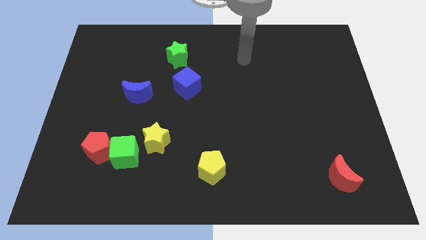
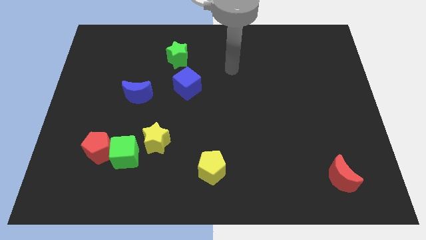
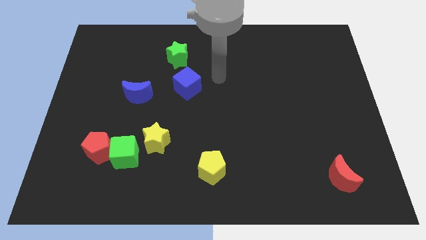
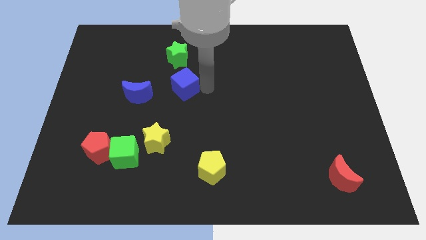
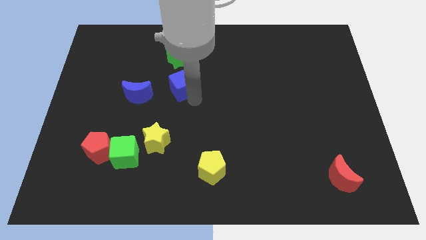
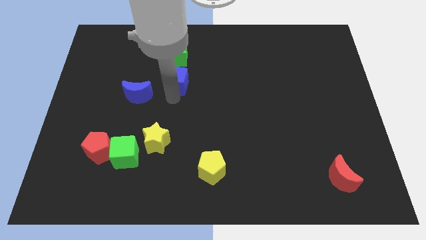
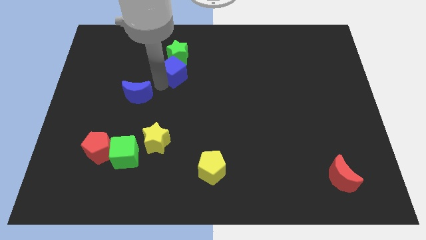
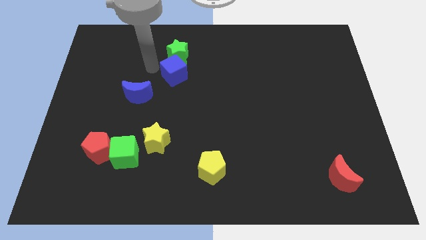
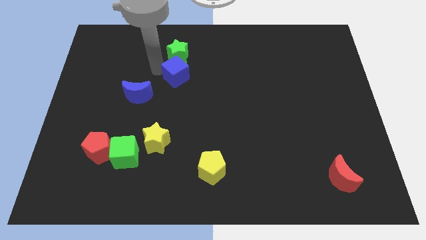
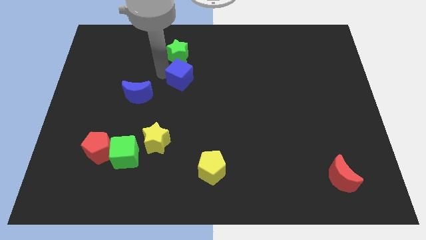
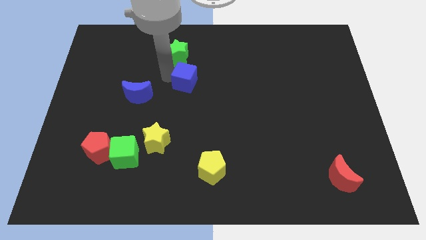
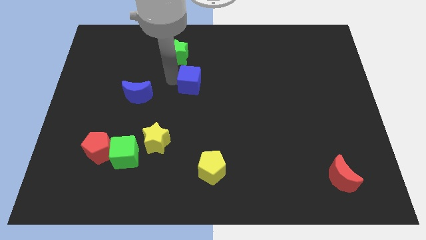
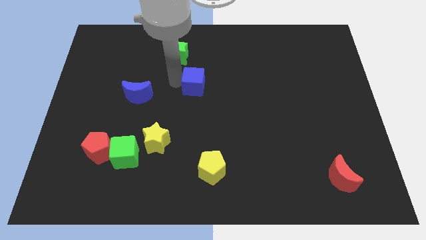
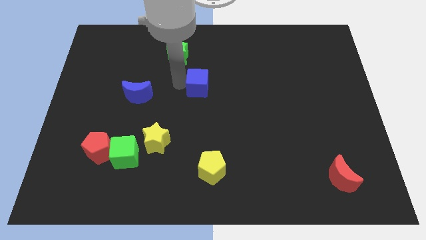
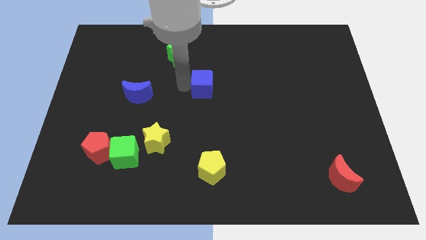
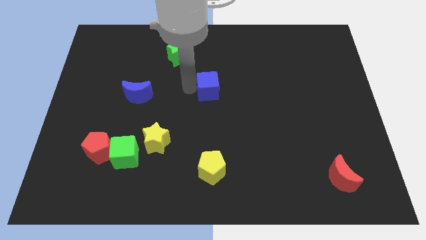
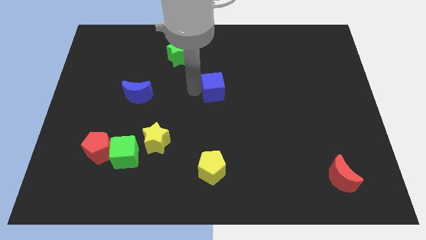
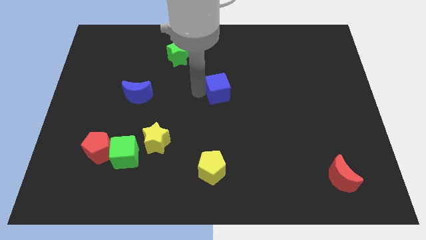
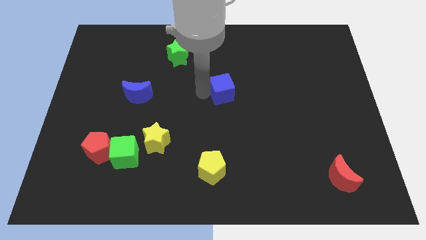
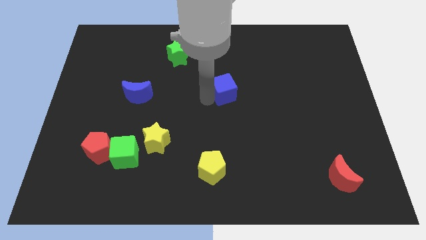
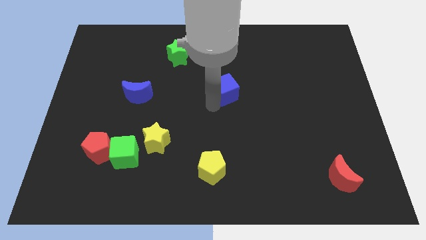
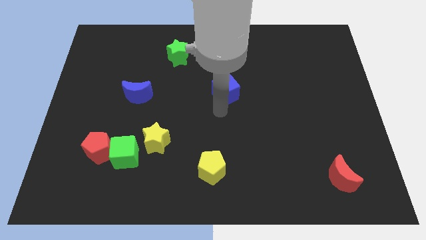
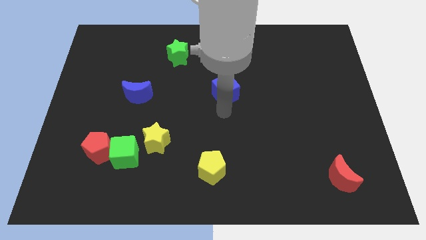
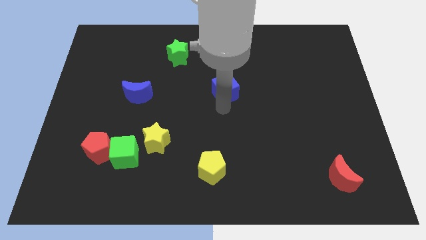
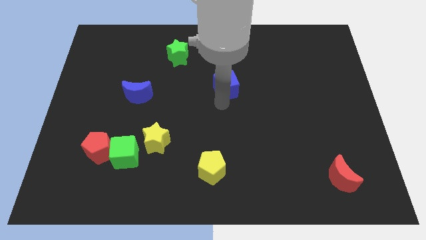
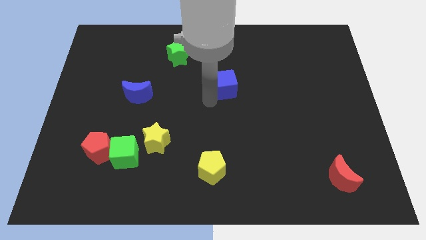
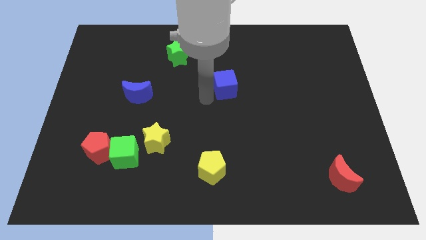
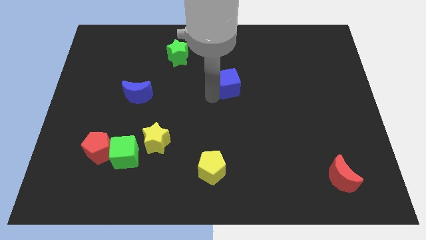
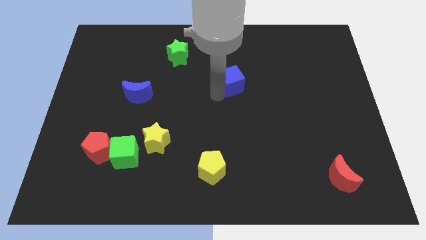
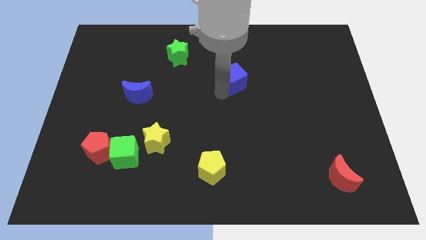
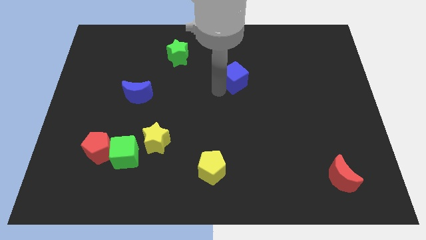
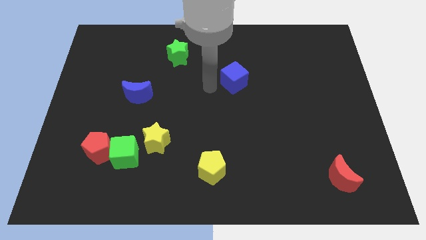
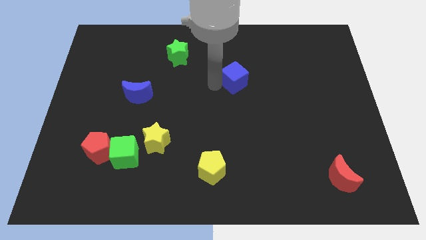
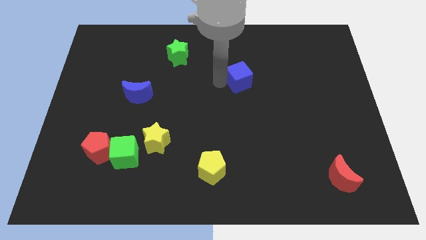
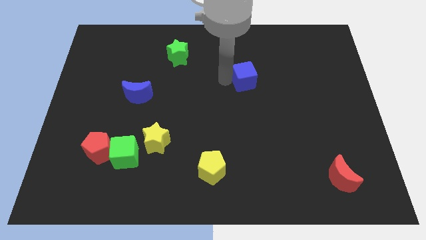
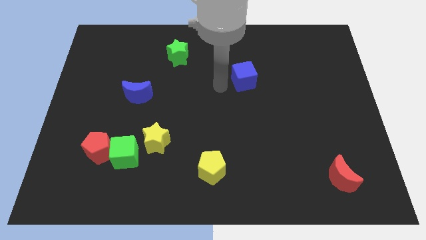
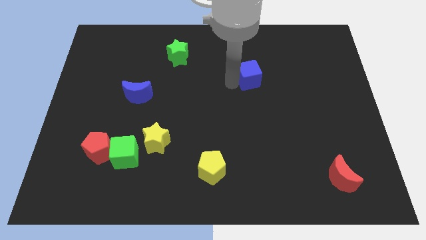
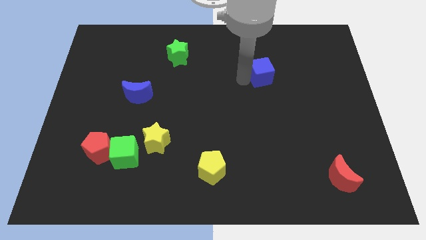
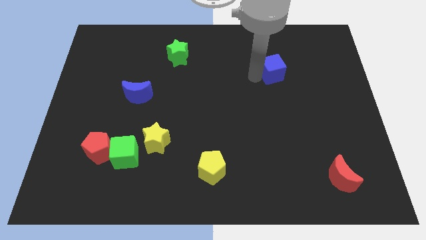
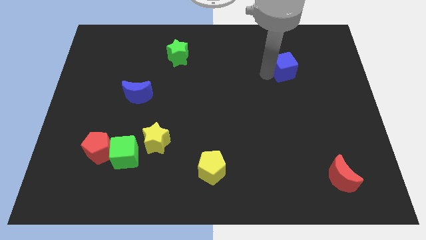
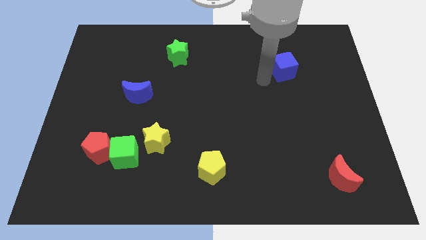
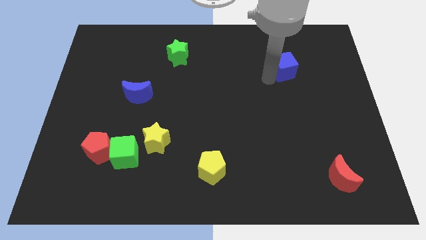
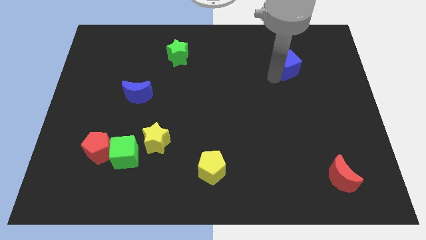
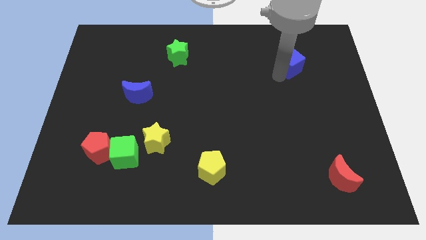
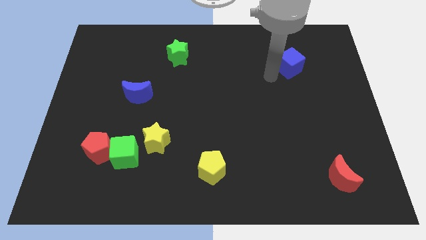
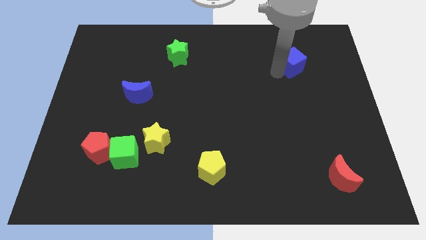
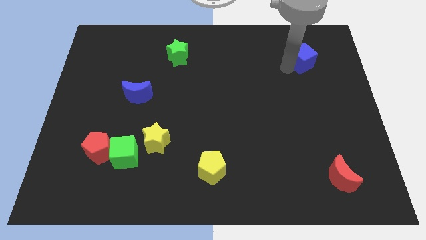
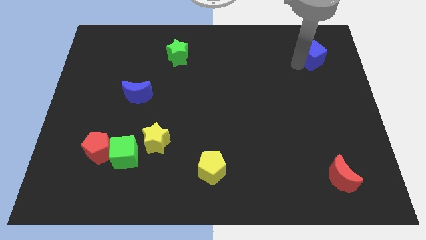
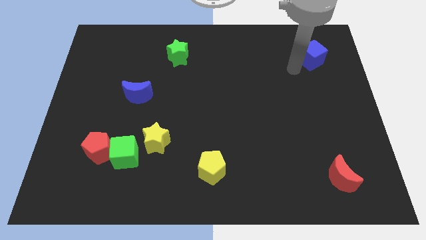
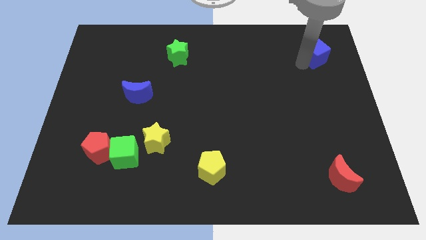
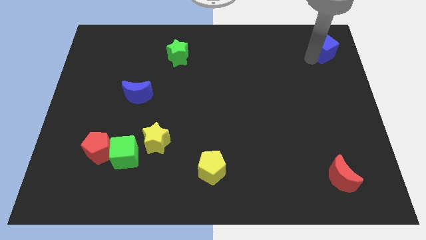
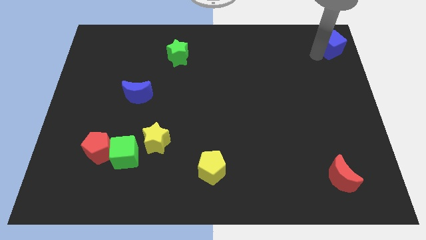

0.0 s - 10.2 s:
move the blue cube to the top right of the board

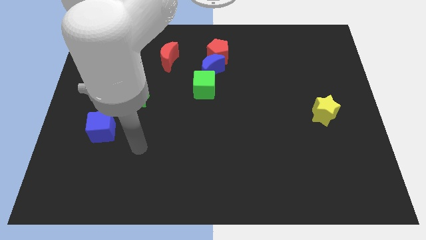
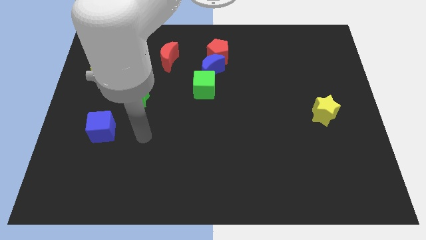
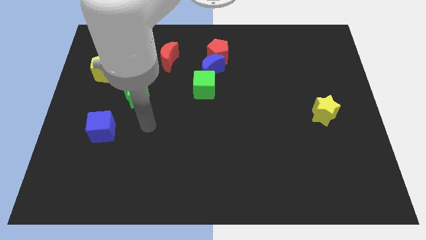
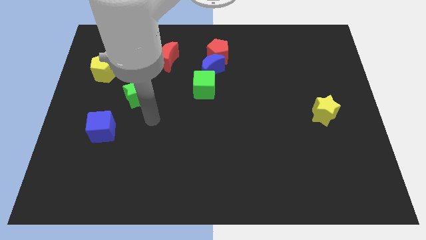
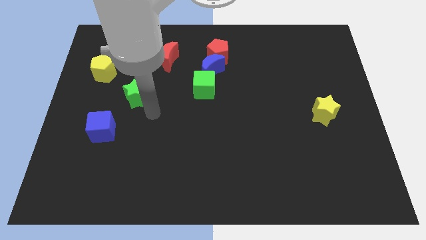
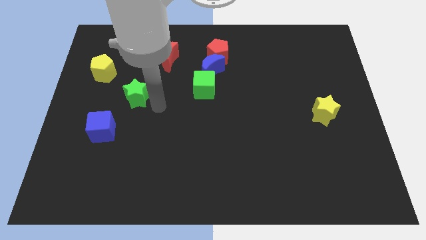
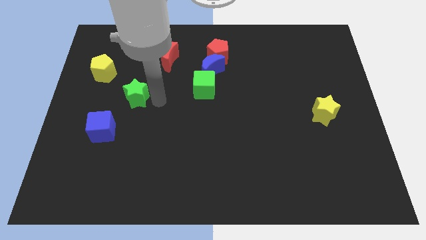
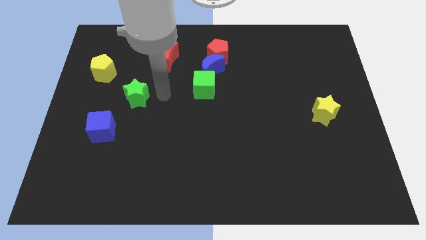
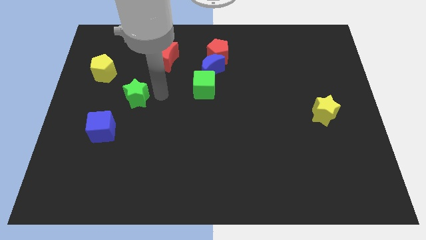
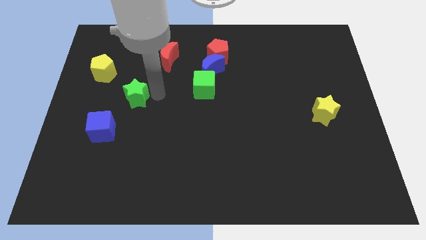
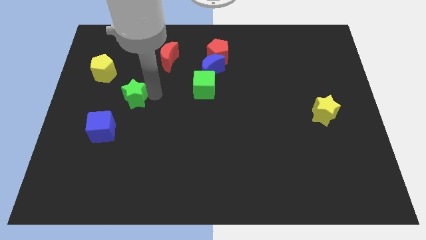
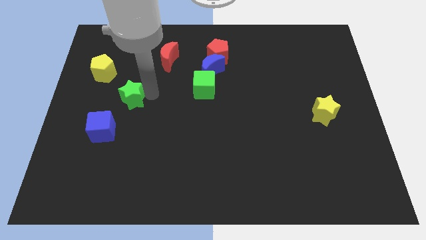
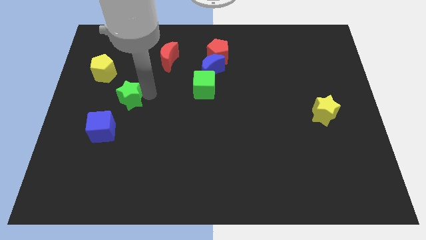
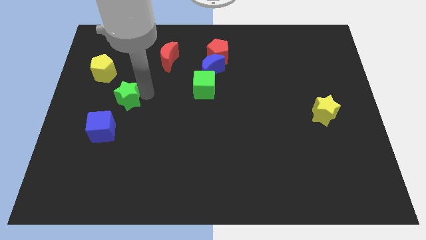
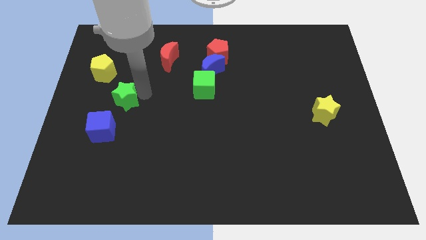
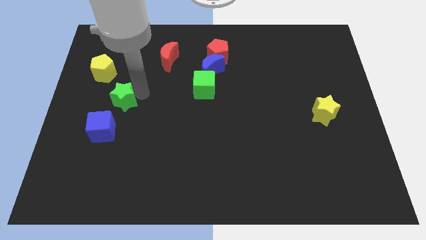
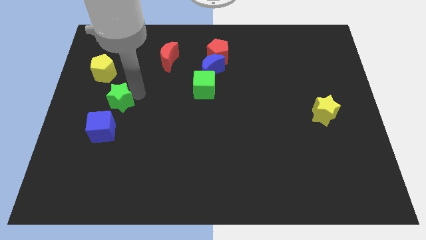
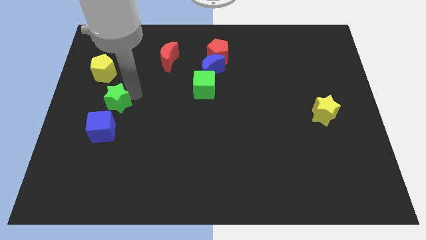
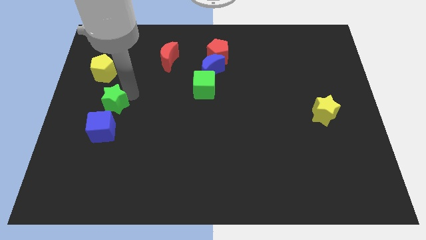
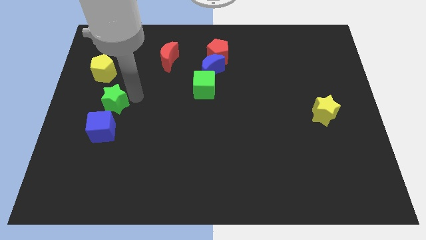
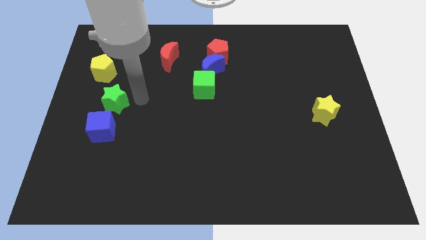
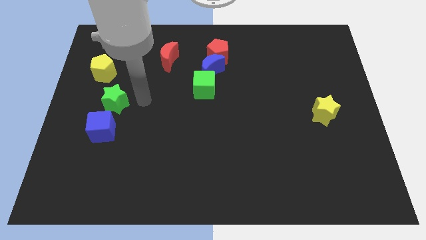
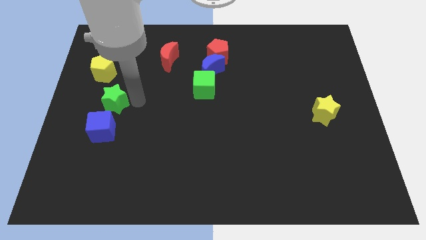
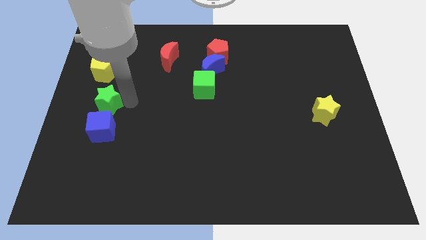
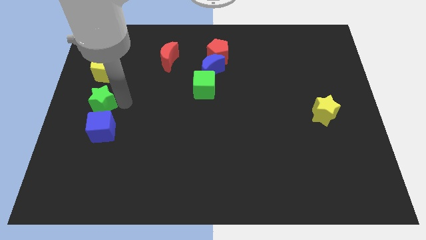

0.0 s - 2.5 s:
move the green star to the left side
